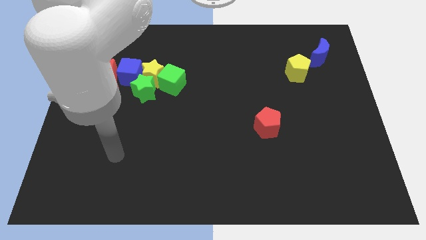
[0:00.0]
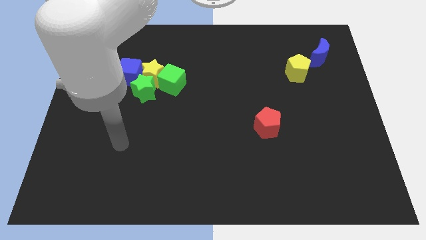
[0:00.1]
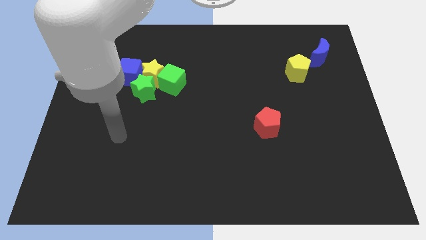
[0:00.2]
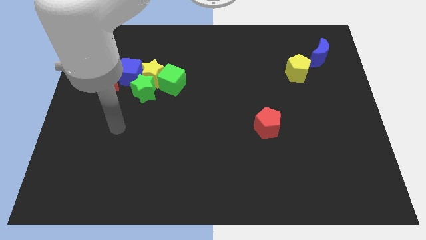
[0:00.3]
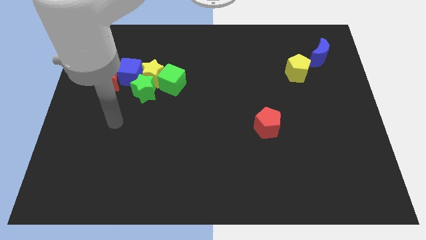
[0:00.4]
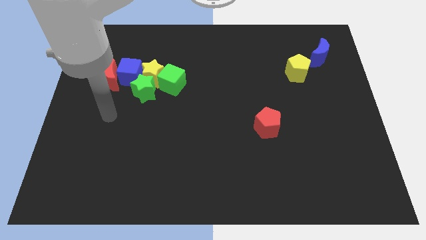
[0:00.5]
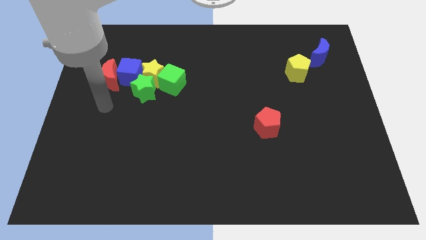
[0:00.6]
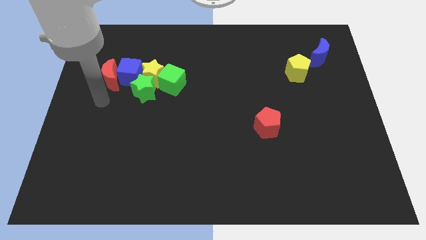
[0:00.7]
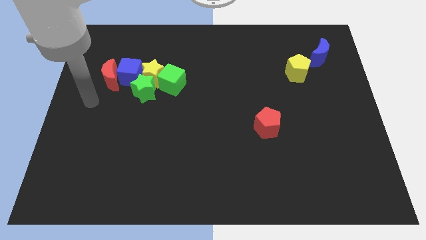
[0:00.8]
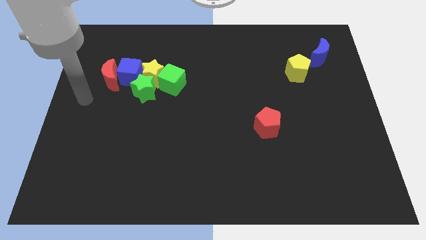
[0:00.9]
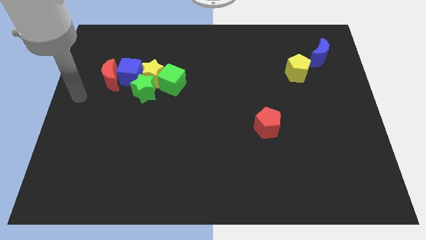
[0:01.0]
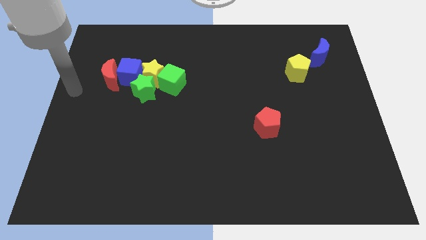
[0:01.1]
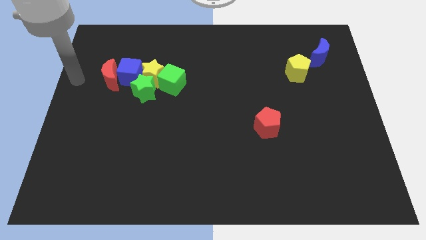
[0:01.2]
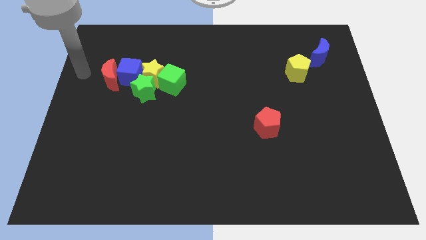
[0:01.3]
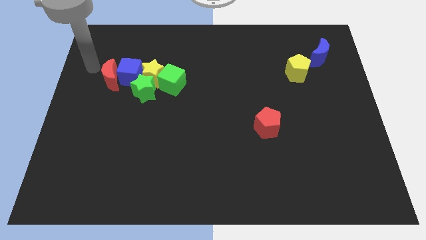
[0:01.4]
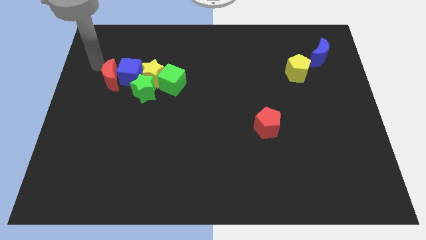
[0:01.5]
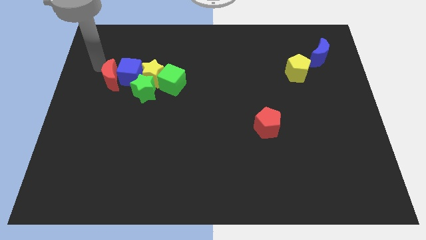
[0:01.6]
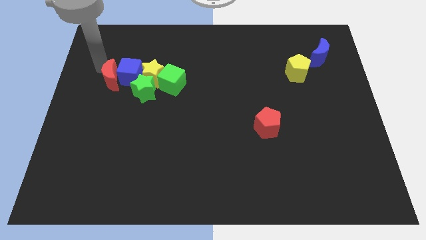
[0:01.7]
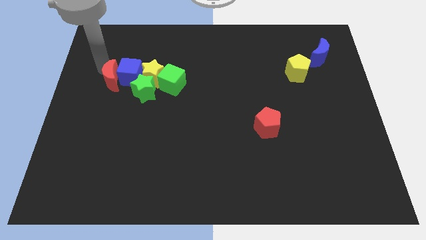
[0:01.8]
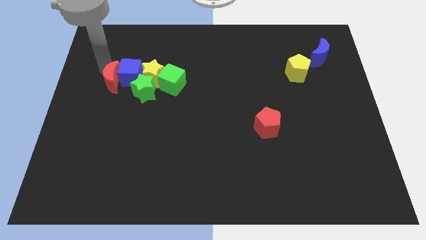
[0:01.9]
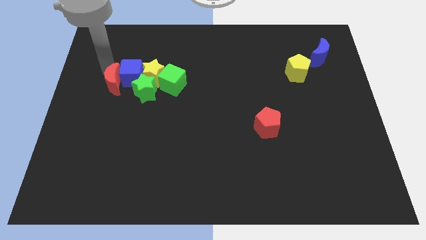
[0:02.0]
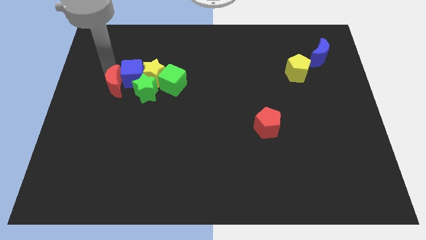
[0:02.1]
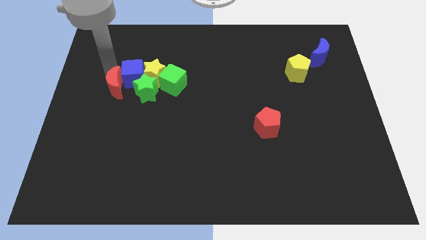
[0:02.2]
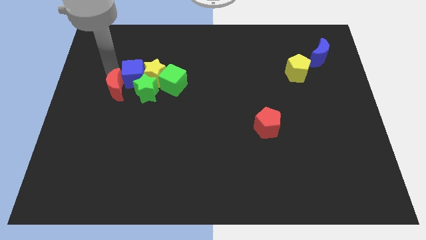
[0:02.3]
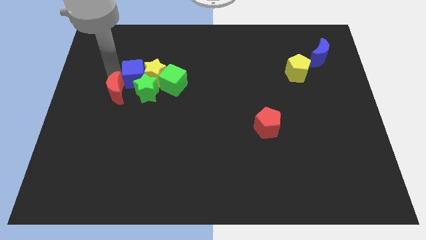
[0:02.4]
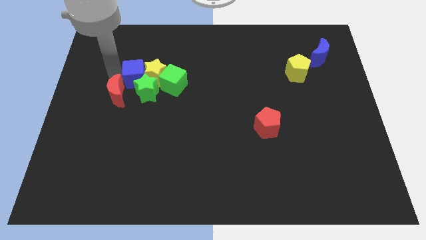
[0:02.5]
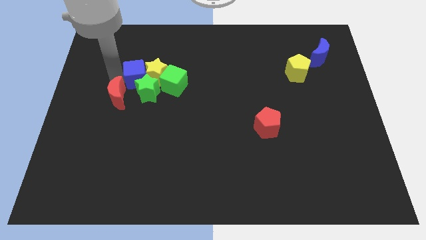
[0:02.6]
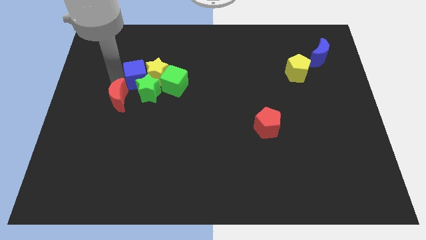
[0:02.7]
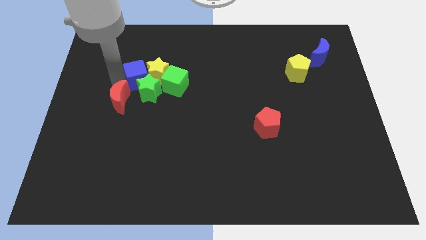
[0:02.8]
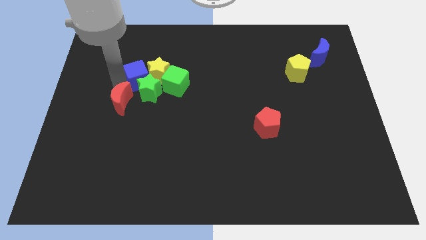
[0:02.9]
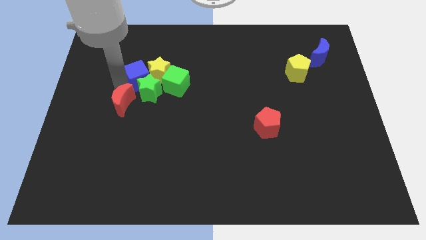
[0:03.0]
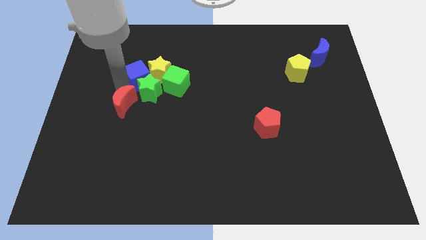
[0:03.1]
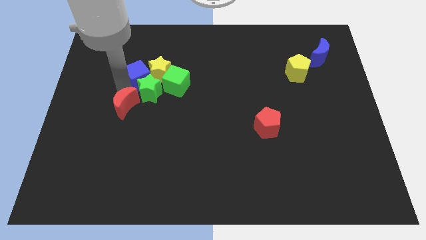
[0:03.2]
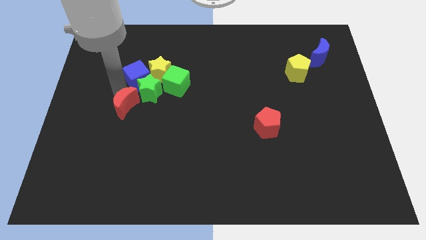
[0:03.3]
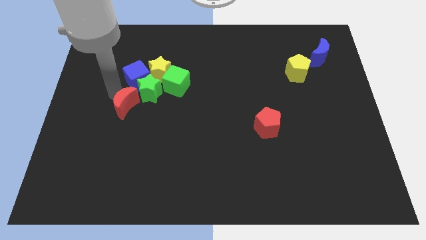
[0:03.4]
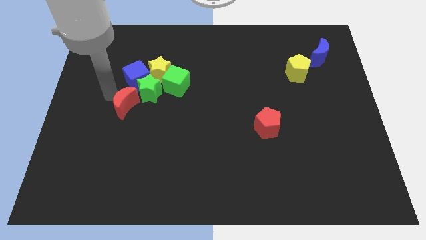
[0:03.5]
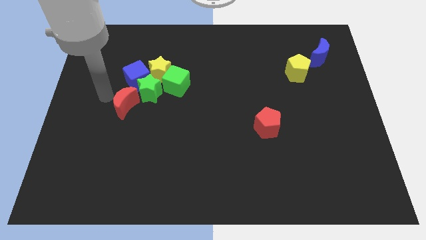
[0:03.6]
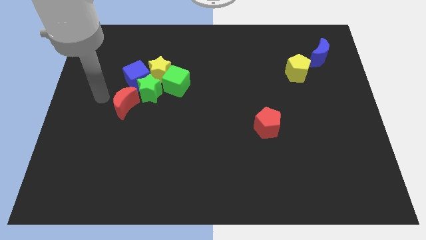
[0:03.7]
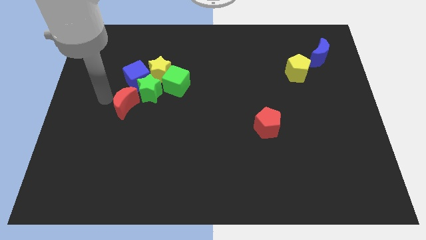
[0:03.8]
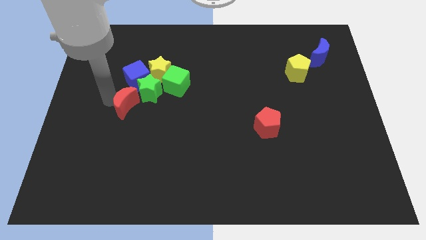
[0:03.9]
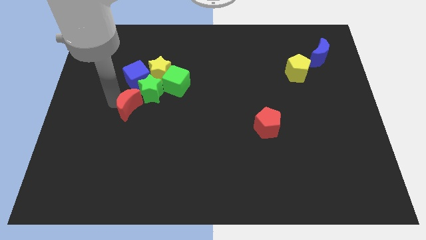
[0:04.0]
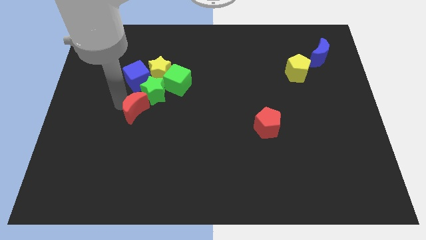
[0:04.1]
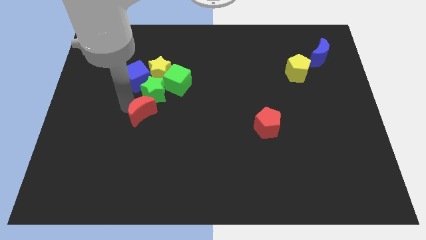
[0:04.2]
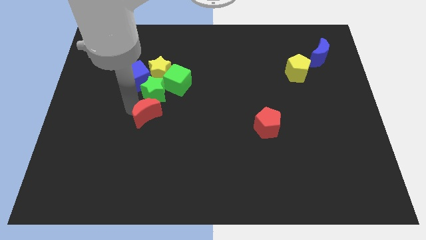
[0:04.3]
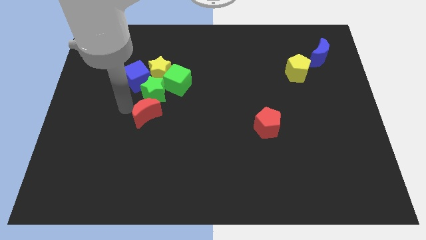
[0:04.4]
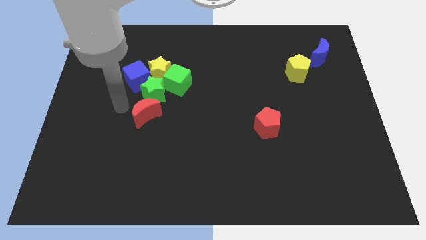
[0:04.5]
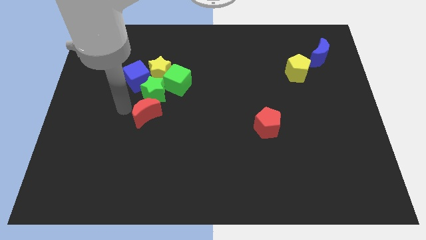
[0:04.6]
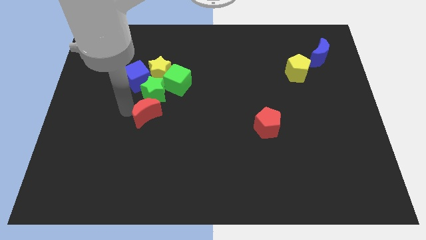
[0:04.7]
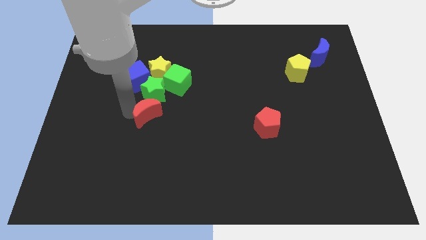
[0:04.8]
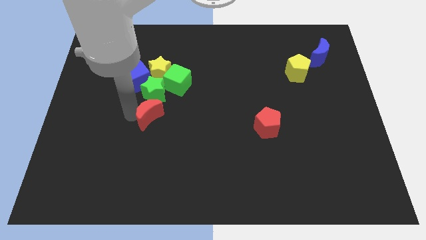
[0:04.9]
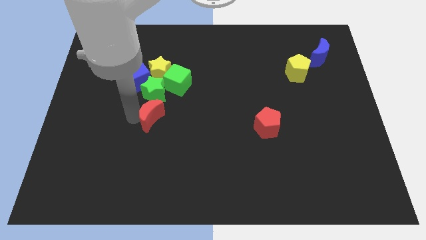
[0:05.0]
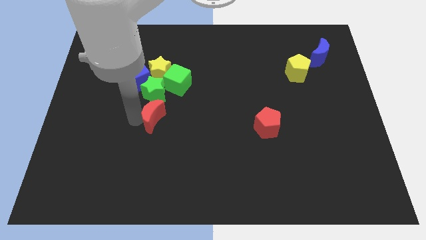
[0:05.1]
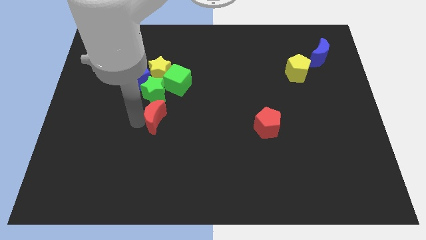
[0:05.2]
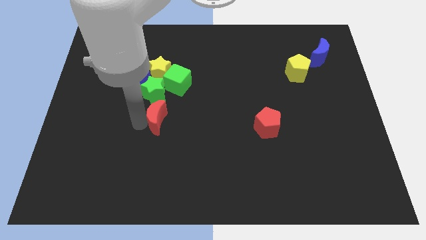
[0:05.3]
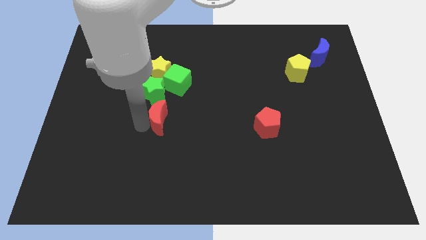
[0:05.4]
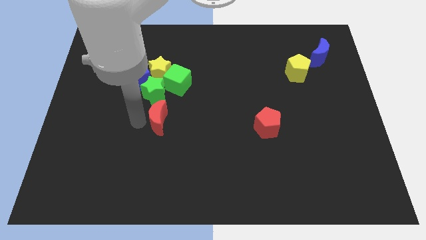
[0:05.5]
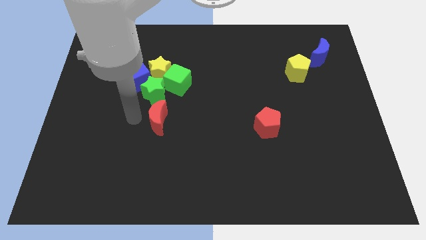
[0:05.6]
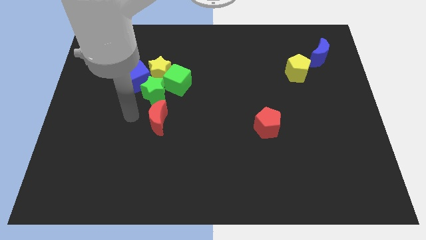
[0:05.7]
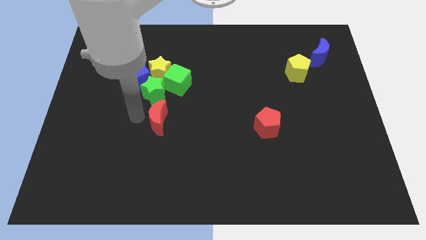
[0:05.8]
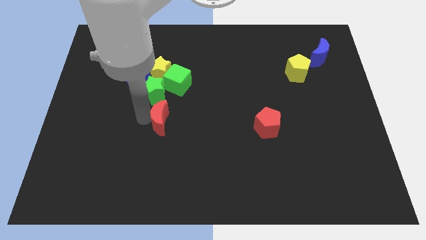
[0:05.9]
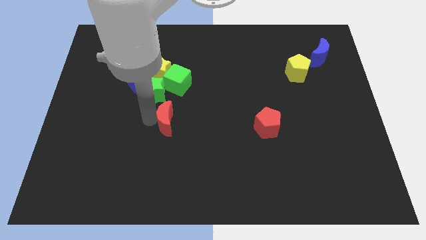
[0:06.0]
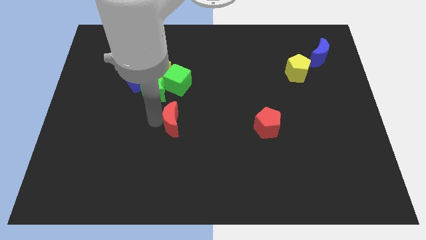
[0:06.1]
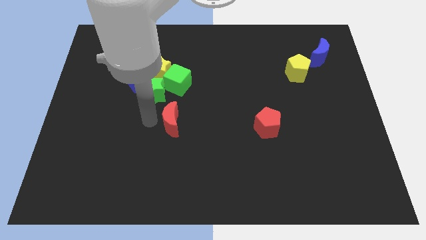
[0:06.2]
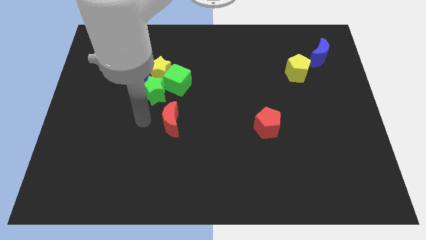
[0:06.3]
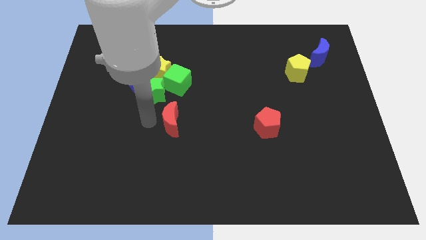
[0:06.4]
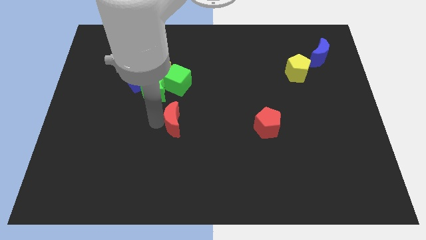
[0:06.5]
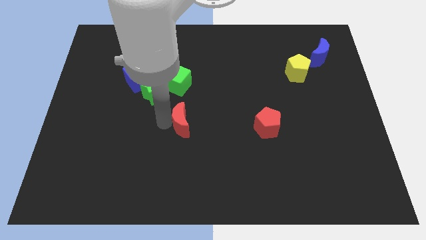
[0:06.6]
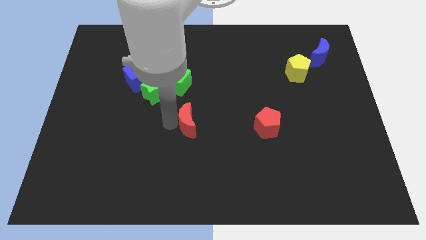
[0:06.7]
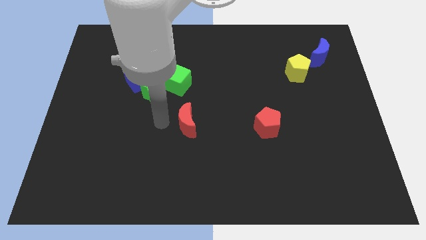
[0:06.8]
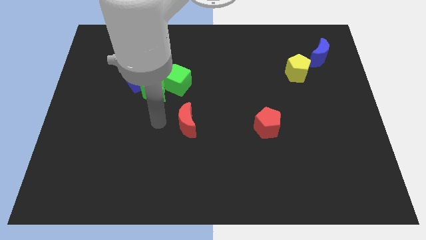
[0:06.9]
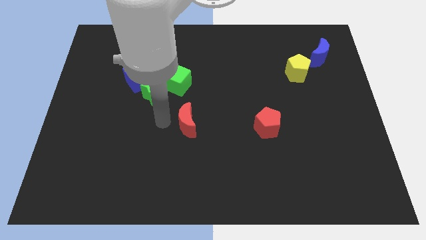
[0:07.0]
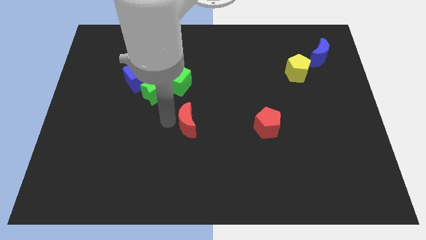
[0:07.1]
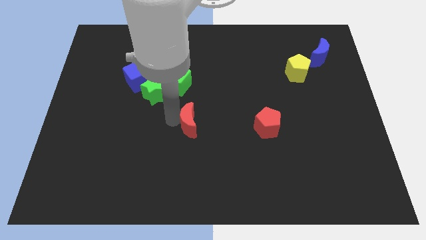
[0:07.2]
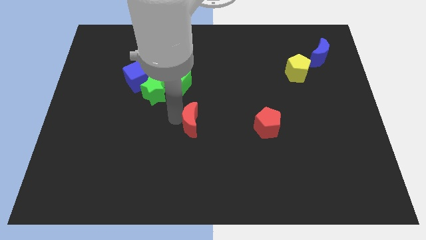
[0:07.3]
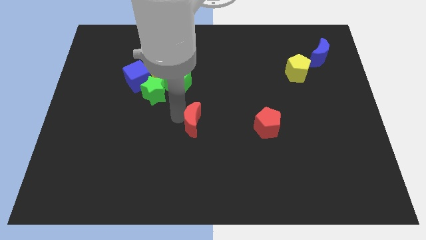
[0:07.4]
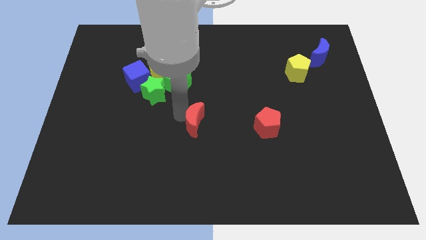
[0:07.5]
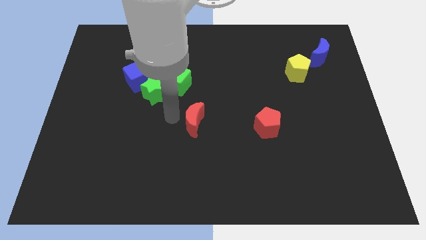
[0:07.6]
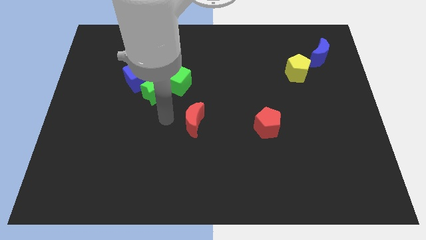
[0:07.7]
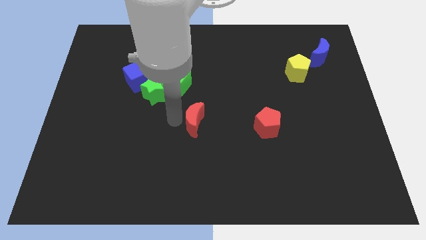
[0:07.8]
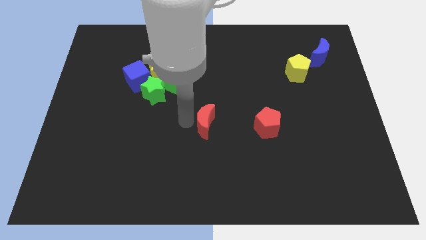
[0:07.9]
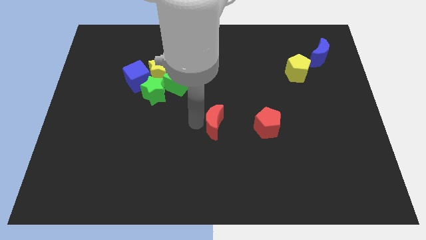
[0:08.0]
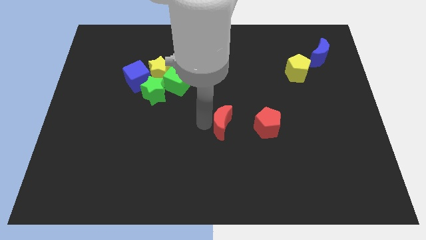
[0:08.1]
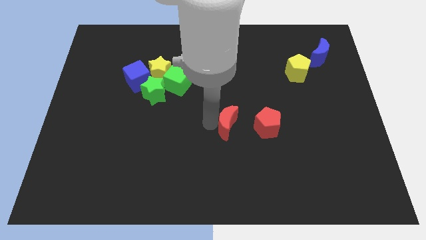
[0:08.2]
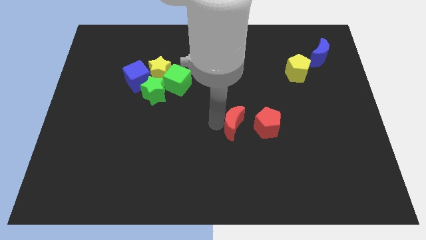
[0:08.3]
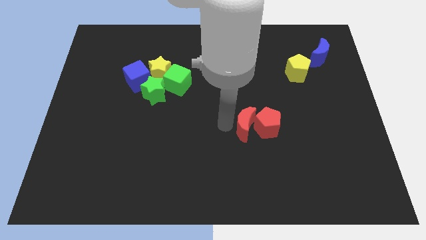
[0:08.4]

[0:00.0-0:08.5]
move the red moon close to the red pentagon
